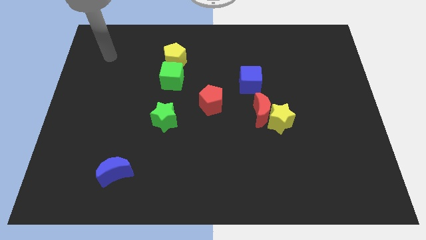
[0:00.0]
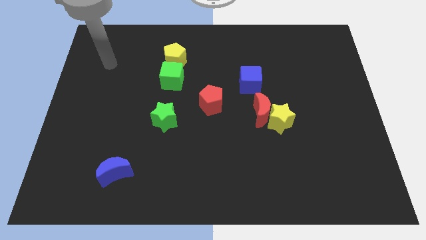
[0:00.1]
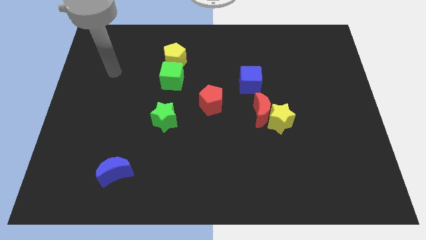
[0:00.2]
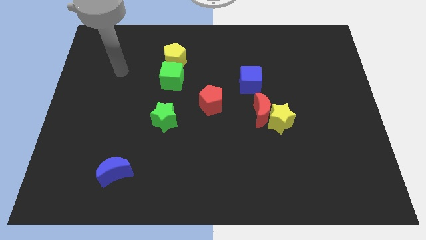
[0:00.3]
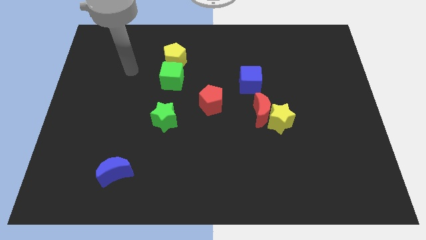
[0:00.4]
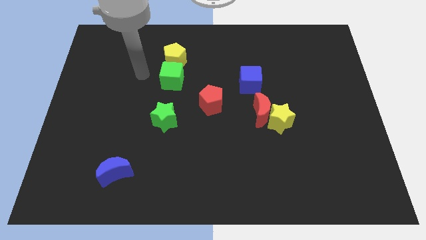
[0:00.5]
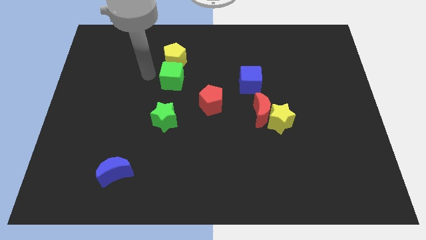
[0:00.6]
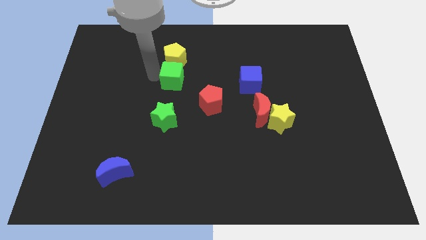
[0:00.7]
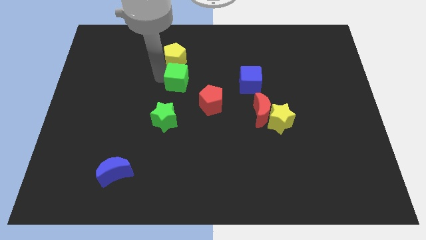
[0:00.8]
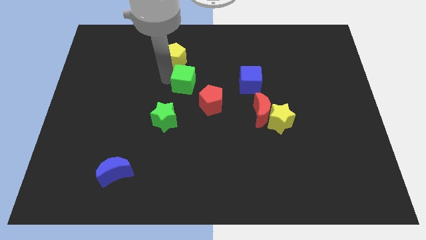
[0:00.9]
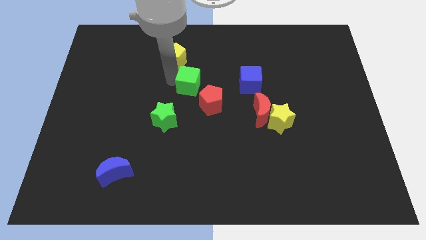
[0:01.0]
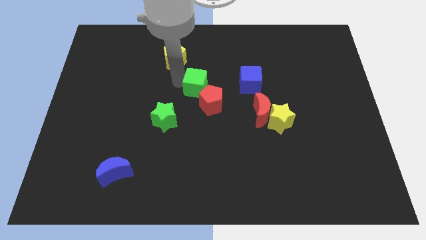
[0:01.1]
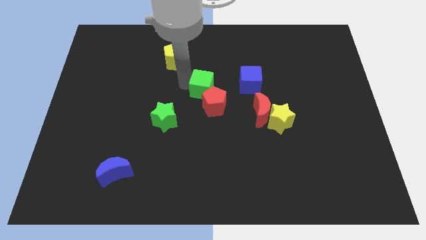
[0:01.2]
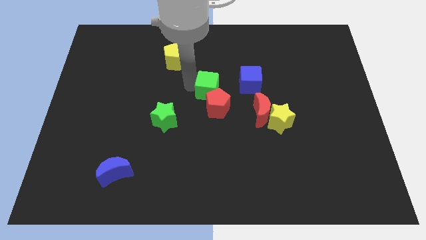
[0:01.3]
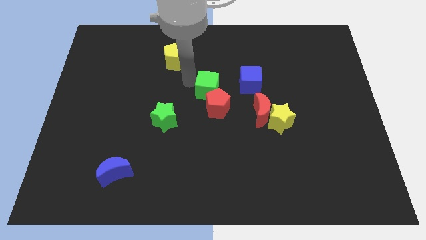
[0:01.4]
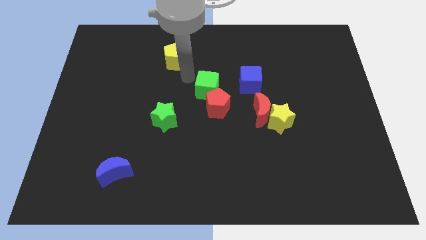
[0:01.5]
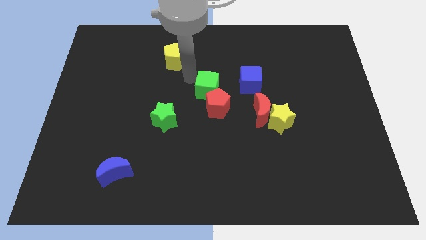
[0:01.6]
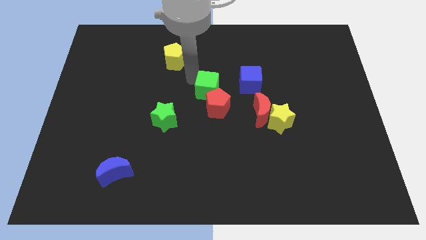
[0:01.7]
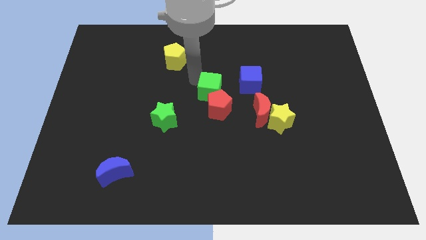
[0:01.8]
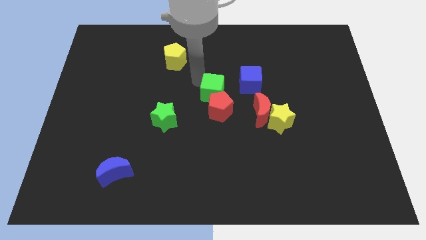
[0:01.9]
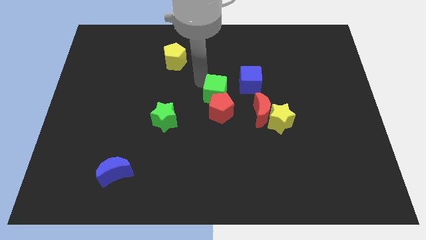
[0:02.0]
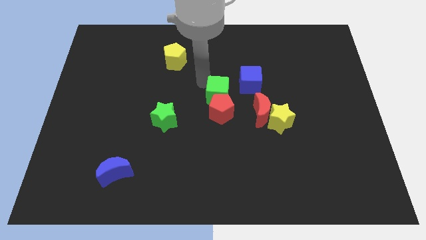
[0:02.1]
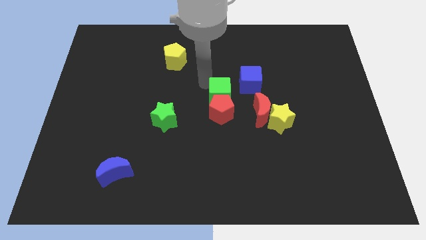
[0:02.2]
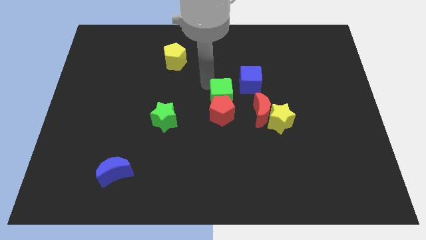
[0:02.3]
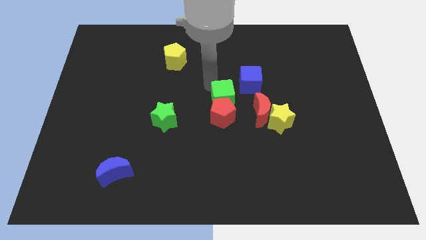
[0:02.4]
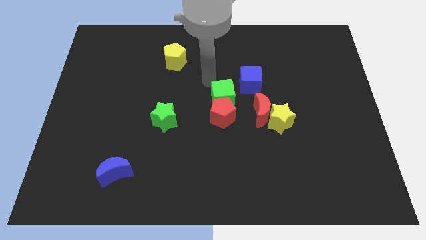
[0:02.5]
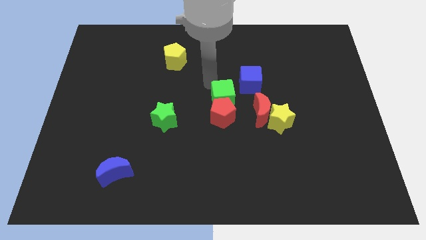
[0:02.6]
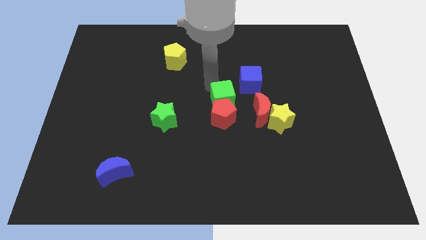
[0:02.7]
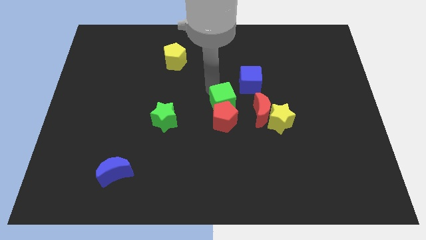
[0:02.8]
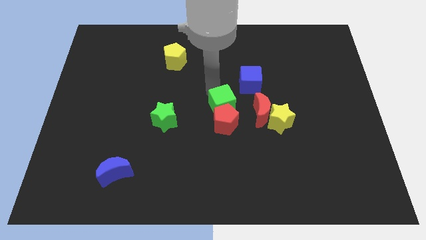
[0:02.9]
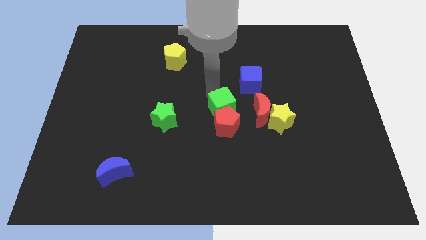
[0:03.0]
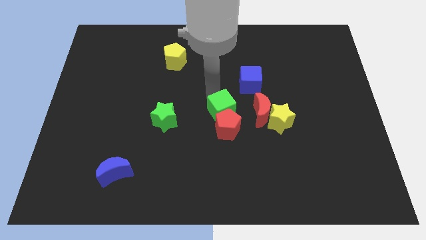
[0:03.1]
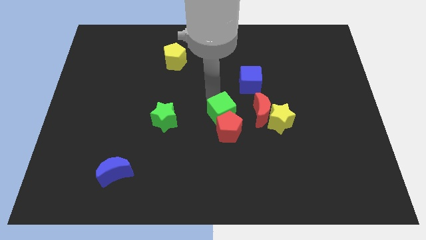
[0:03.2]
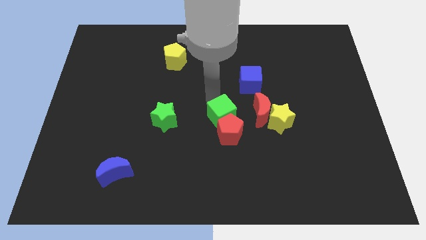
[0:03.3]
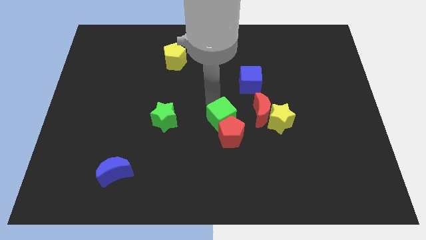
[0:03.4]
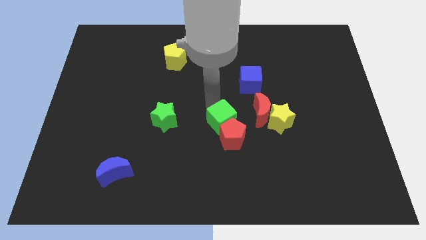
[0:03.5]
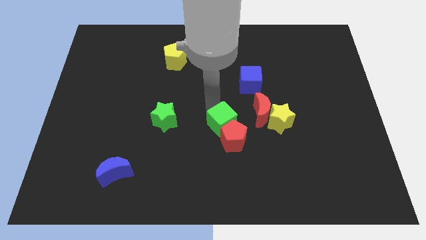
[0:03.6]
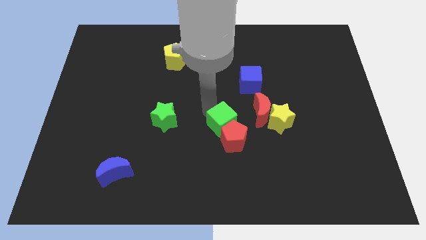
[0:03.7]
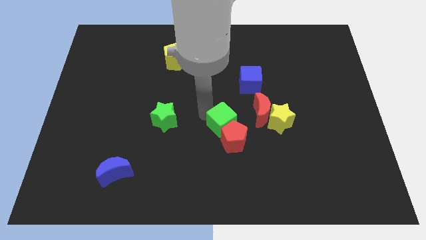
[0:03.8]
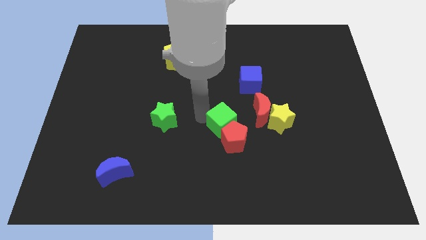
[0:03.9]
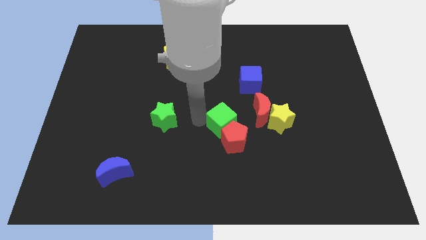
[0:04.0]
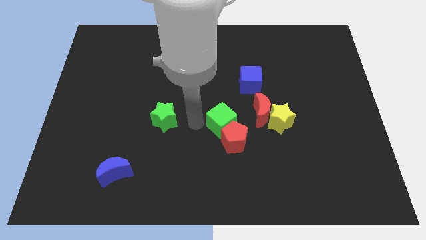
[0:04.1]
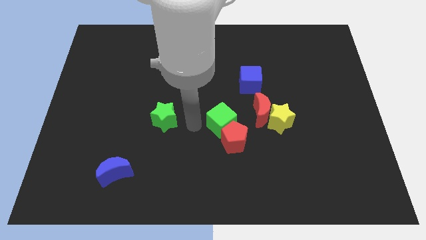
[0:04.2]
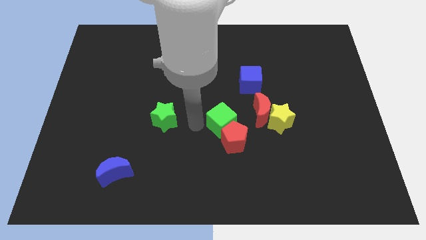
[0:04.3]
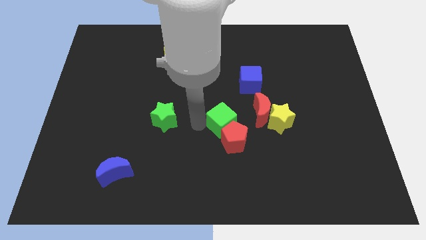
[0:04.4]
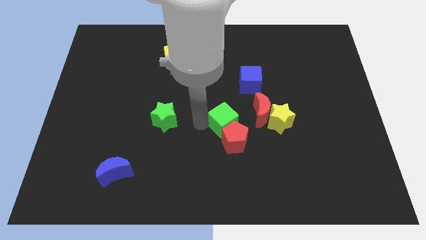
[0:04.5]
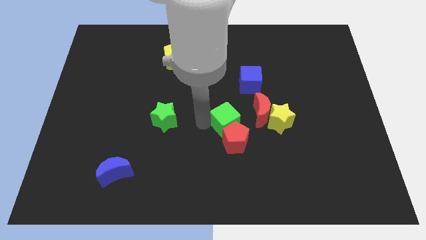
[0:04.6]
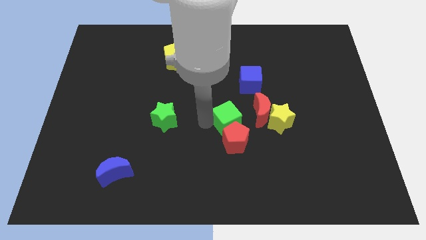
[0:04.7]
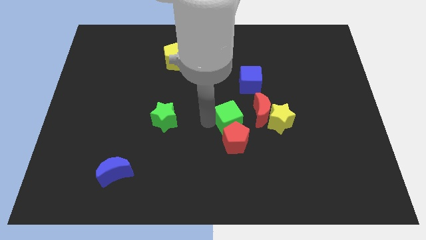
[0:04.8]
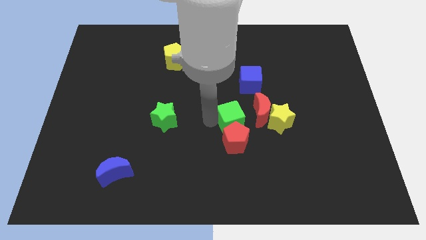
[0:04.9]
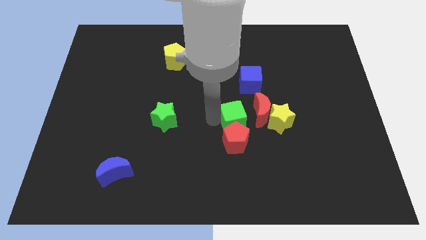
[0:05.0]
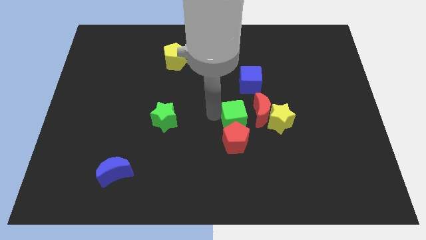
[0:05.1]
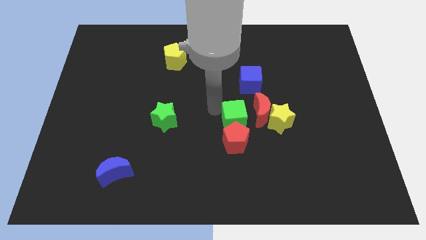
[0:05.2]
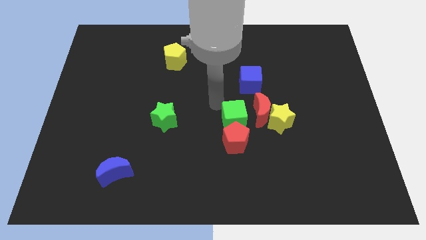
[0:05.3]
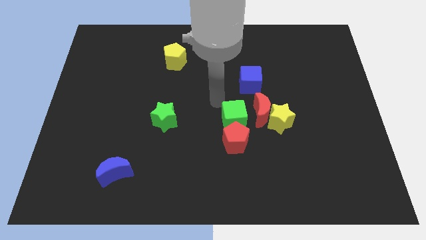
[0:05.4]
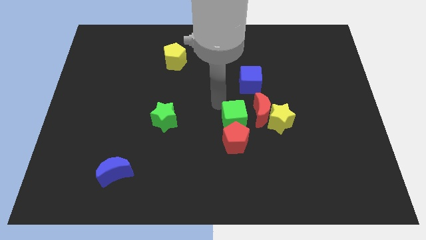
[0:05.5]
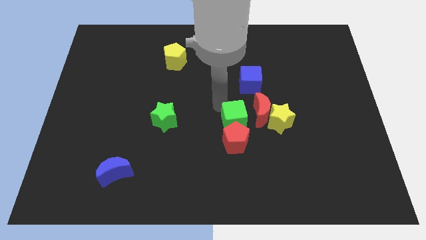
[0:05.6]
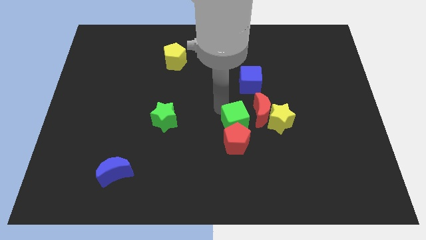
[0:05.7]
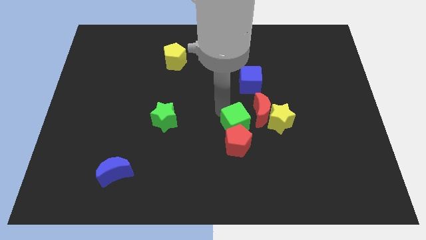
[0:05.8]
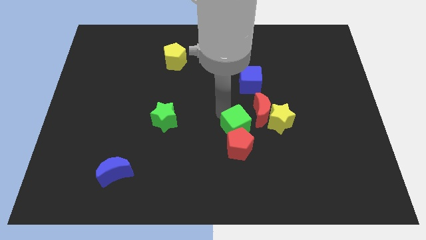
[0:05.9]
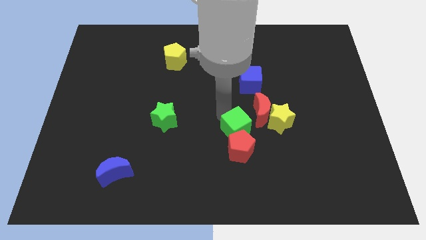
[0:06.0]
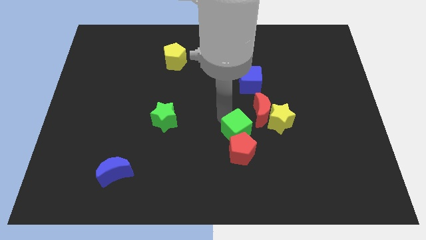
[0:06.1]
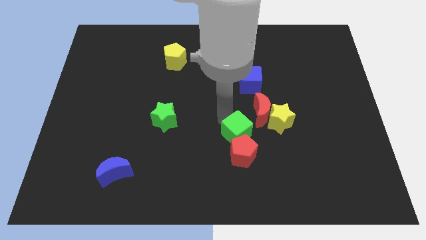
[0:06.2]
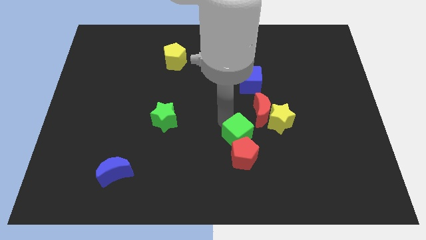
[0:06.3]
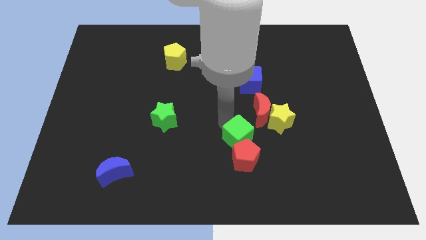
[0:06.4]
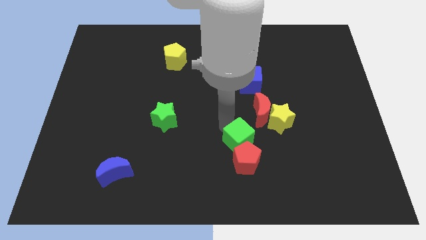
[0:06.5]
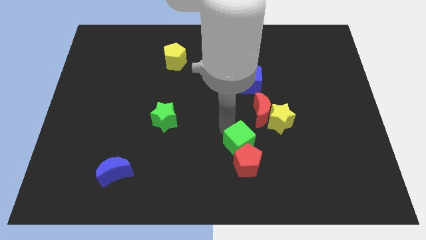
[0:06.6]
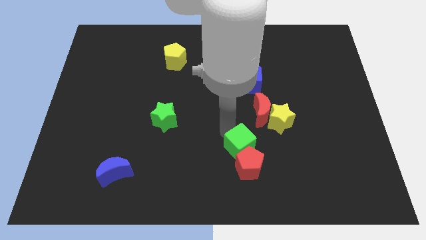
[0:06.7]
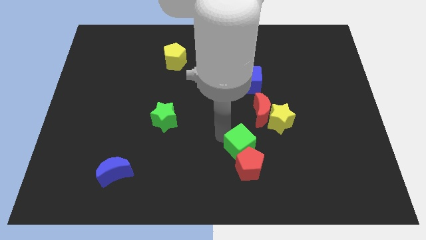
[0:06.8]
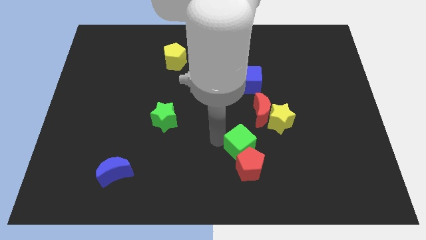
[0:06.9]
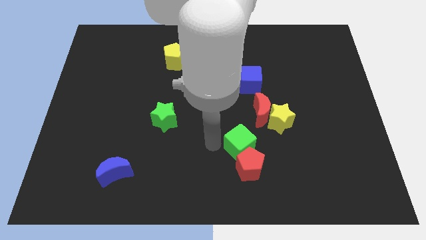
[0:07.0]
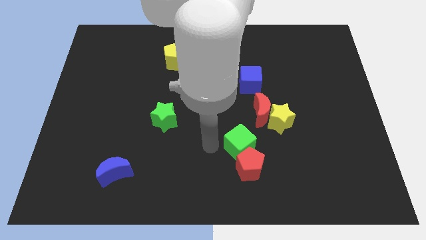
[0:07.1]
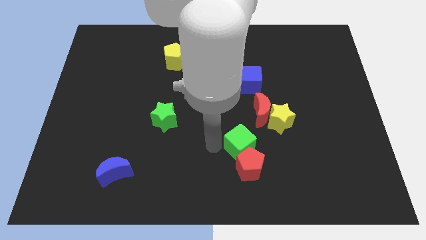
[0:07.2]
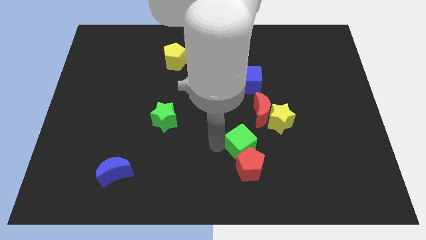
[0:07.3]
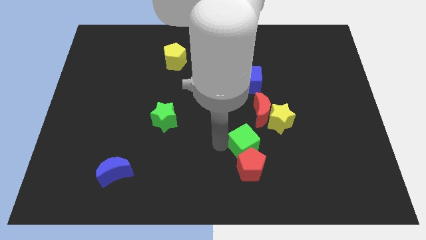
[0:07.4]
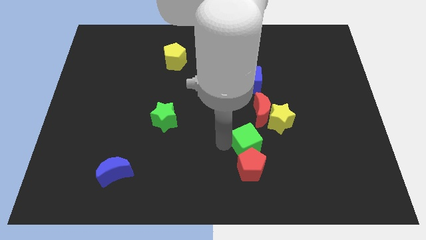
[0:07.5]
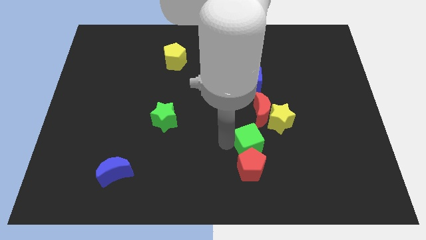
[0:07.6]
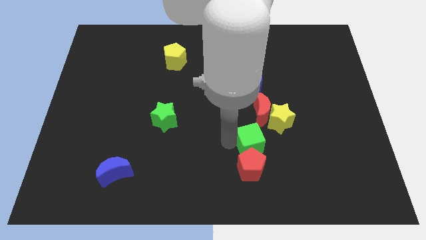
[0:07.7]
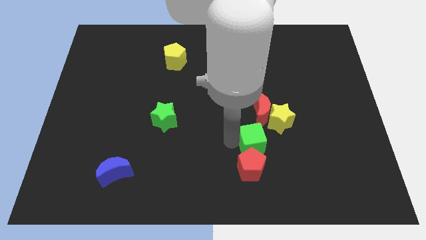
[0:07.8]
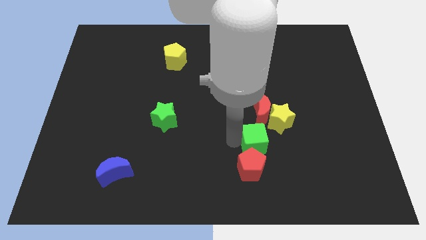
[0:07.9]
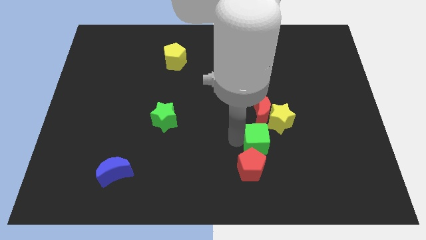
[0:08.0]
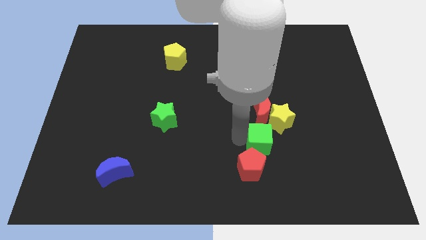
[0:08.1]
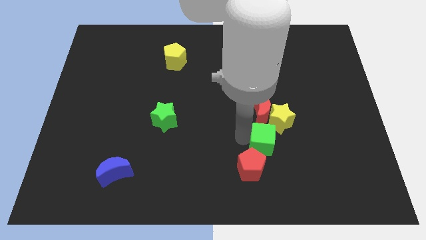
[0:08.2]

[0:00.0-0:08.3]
push the green cube to the bottom of the yellow star

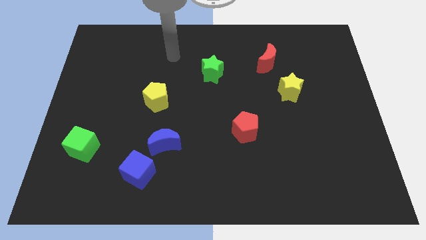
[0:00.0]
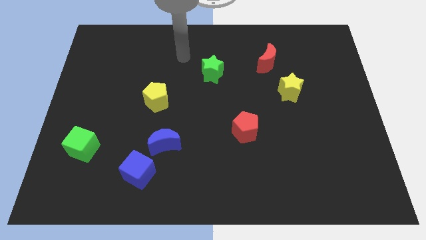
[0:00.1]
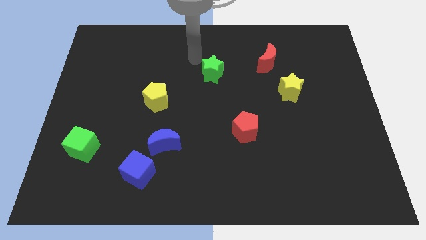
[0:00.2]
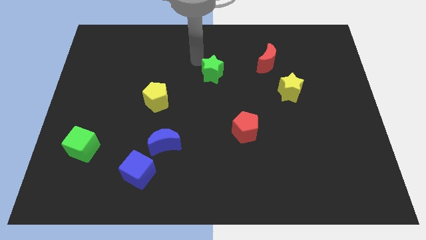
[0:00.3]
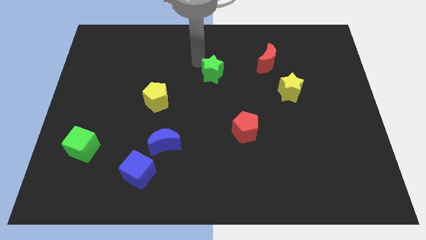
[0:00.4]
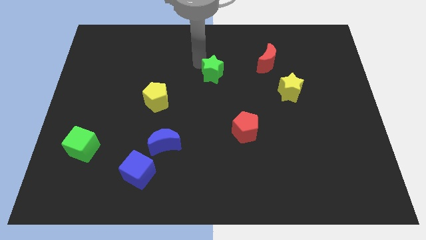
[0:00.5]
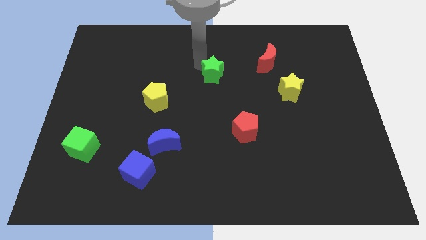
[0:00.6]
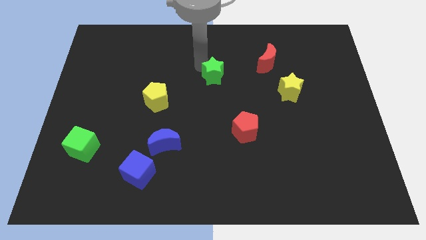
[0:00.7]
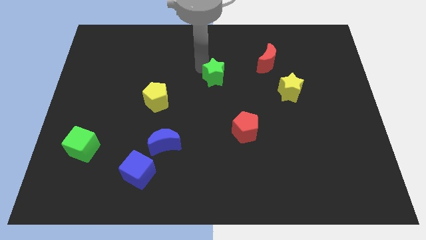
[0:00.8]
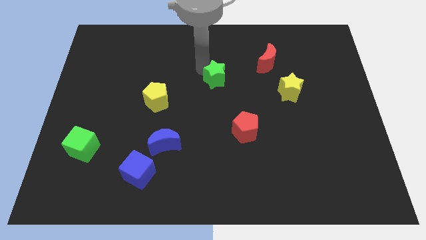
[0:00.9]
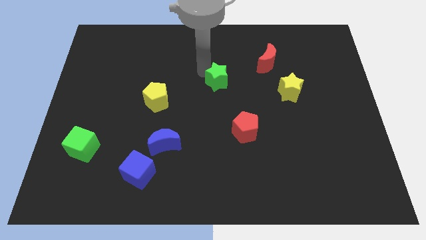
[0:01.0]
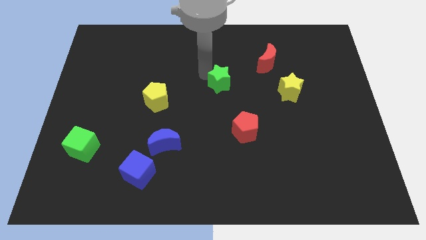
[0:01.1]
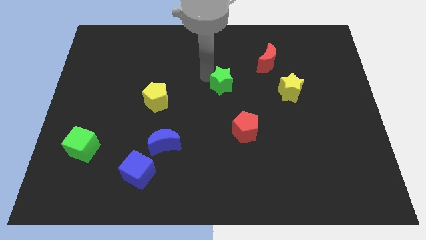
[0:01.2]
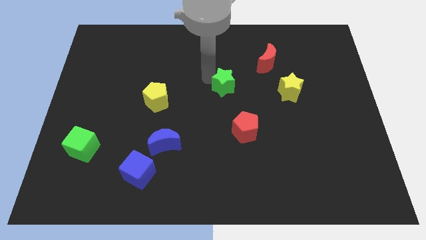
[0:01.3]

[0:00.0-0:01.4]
put the green star to the top side of the red pentagon
